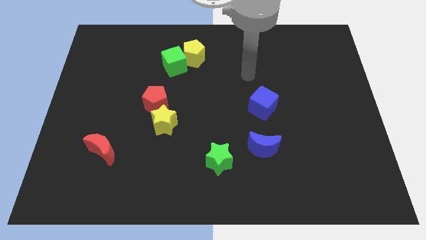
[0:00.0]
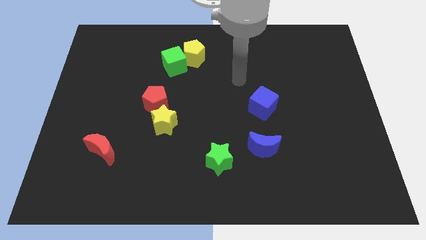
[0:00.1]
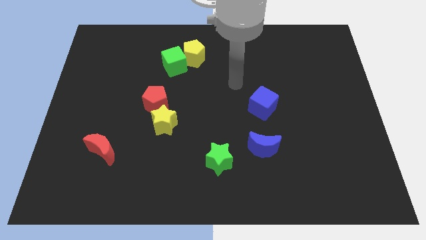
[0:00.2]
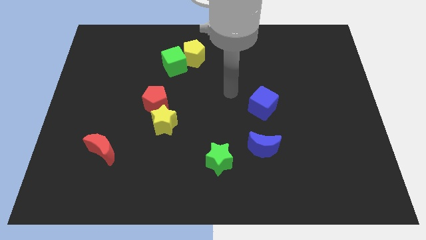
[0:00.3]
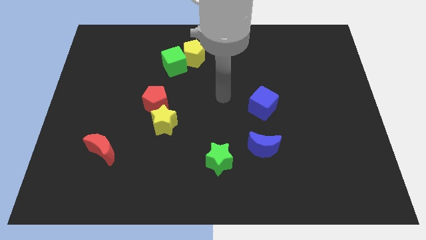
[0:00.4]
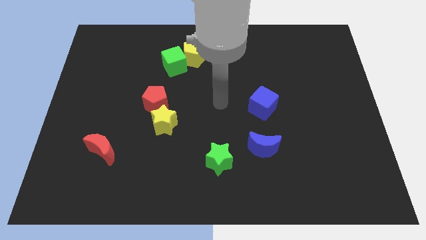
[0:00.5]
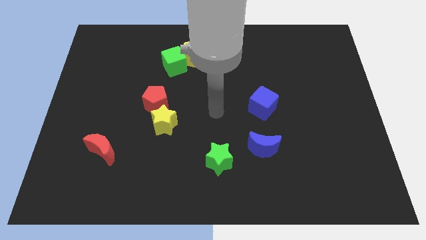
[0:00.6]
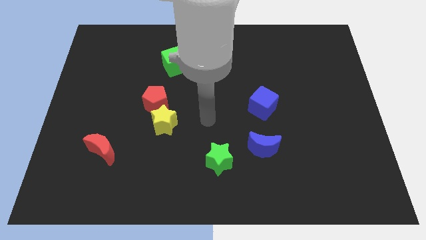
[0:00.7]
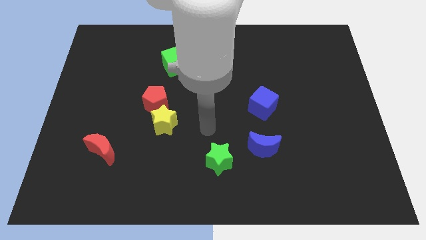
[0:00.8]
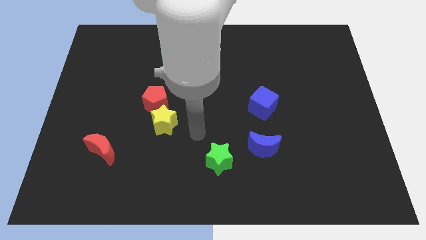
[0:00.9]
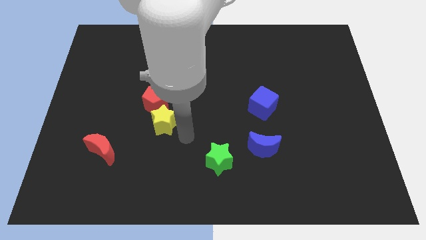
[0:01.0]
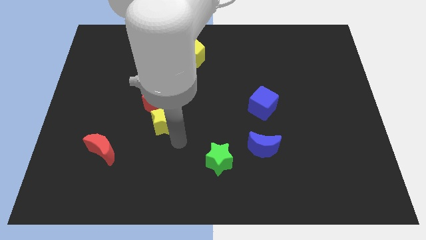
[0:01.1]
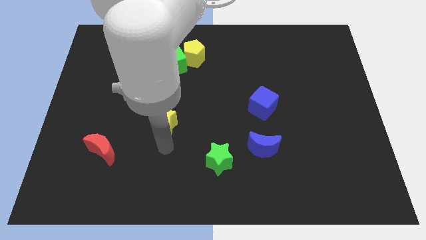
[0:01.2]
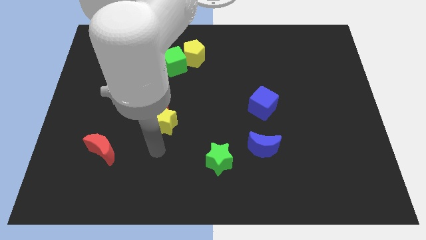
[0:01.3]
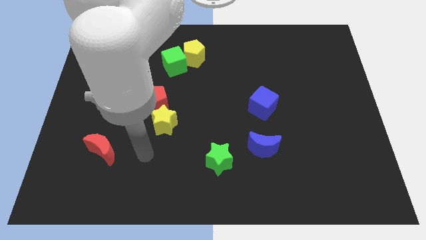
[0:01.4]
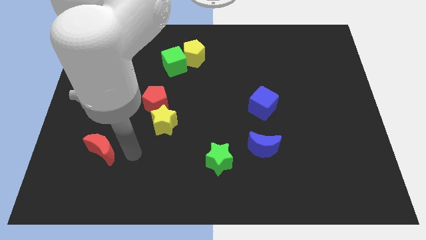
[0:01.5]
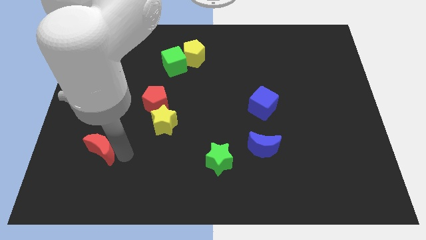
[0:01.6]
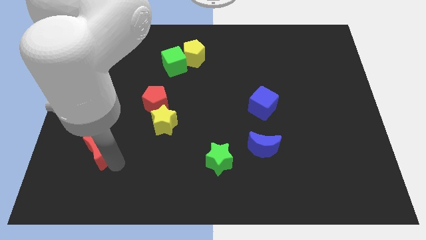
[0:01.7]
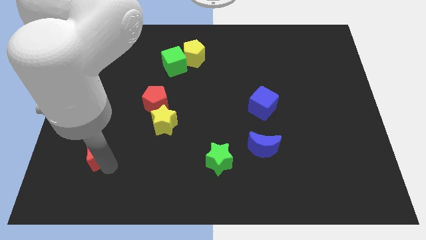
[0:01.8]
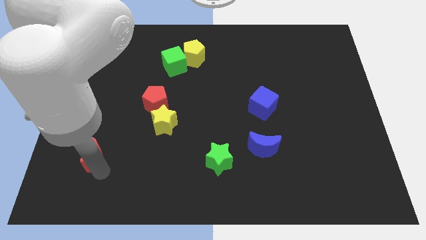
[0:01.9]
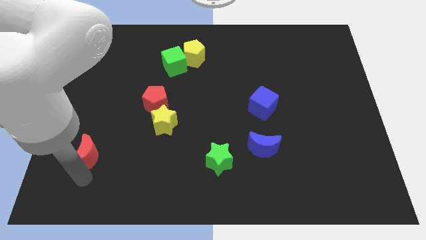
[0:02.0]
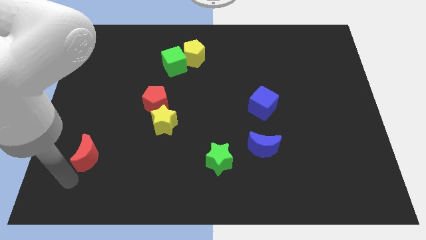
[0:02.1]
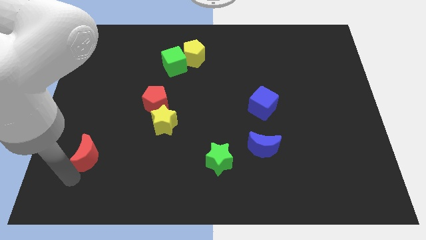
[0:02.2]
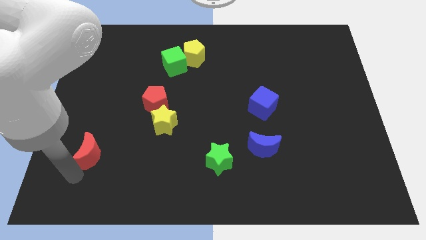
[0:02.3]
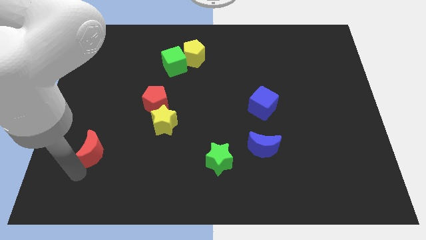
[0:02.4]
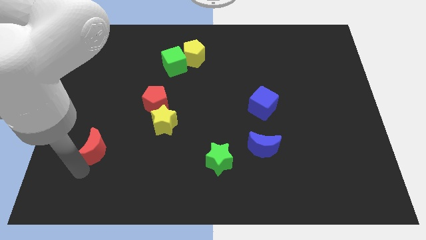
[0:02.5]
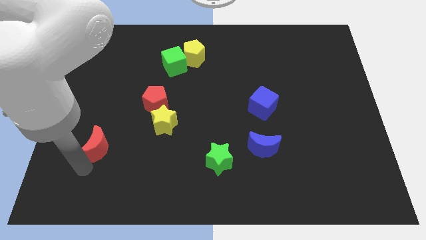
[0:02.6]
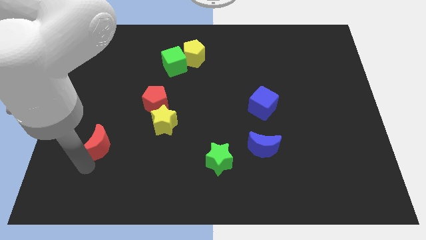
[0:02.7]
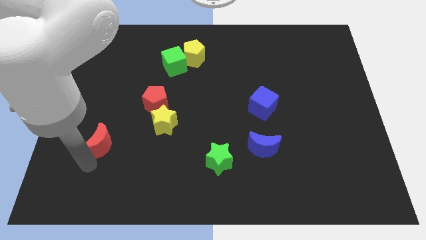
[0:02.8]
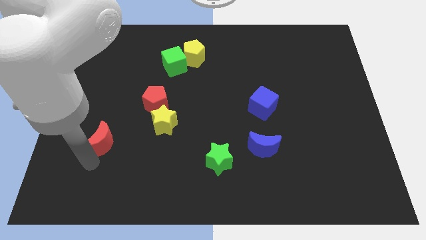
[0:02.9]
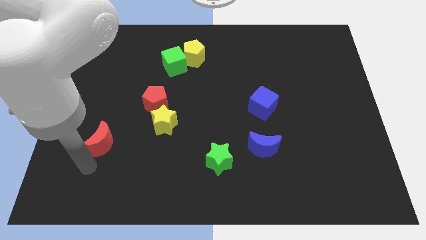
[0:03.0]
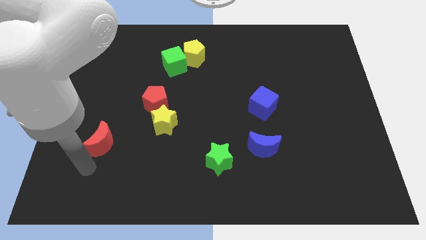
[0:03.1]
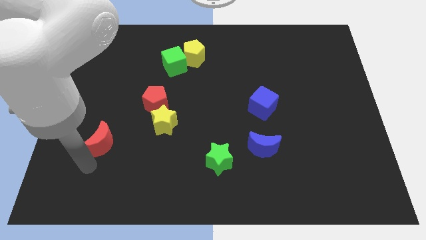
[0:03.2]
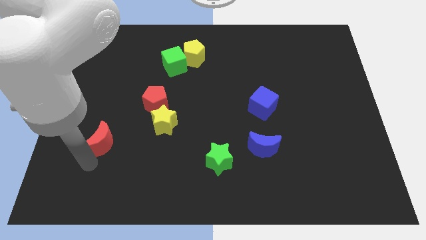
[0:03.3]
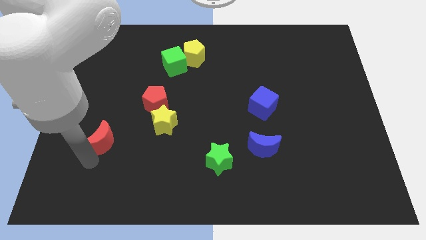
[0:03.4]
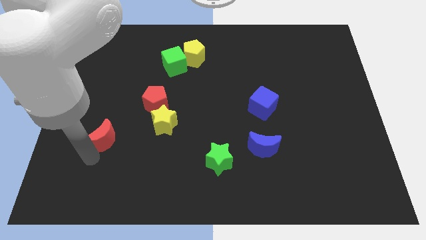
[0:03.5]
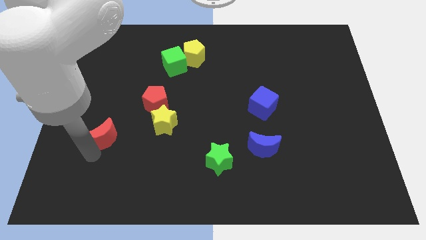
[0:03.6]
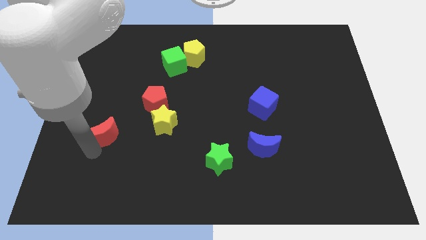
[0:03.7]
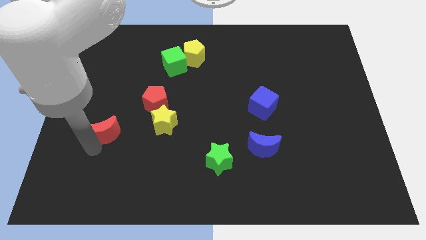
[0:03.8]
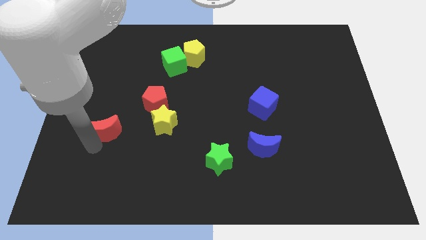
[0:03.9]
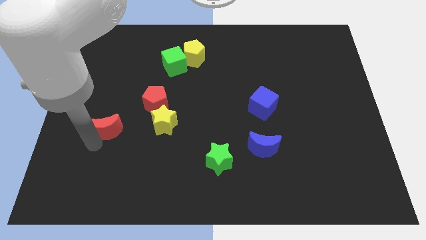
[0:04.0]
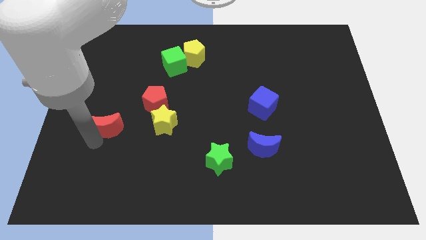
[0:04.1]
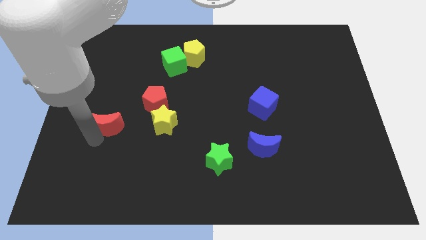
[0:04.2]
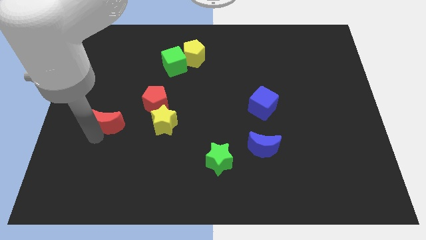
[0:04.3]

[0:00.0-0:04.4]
slightly slide the red moon upwards

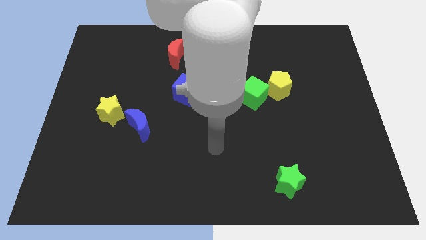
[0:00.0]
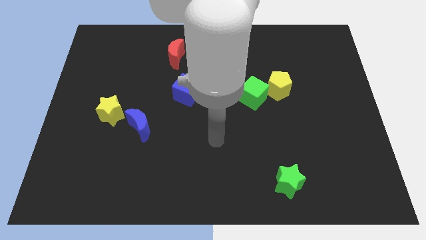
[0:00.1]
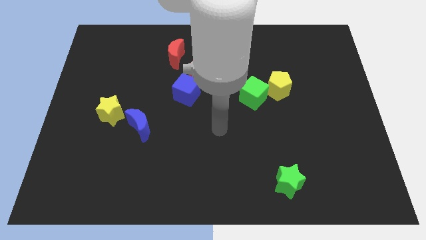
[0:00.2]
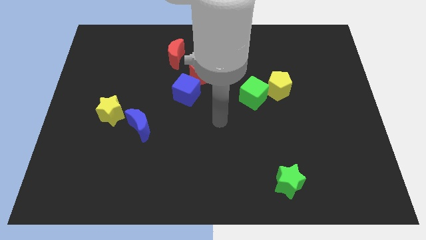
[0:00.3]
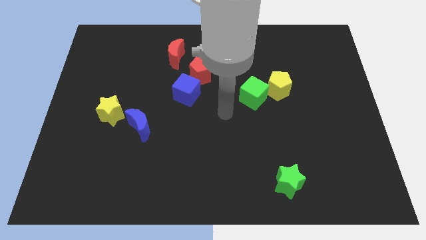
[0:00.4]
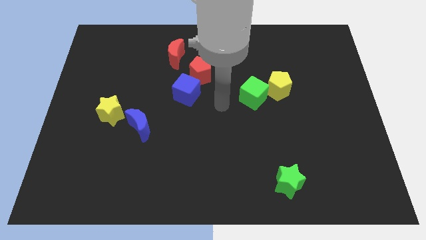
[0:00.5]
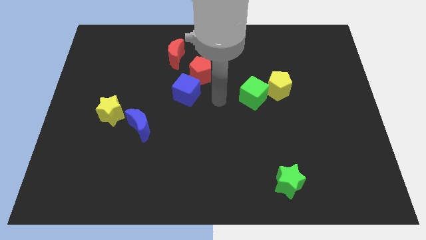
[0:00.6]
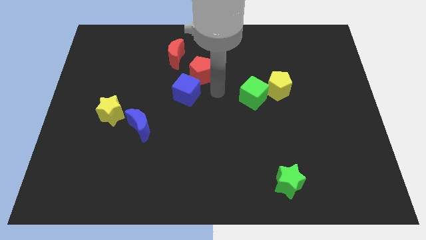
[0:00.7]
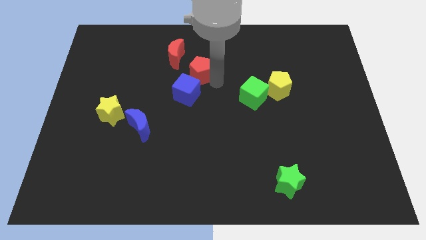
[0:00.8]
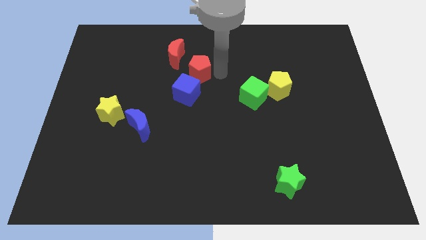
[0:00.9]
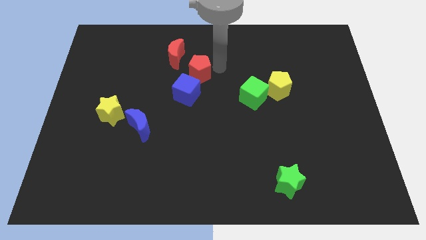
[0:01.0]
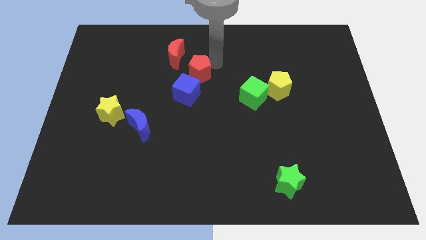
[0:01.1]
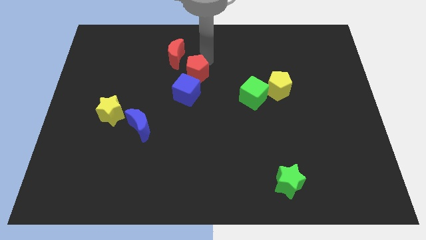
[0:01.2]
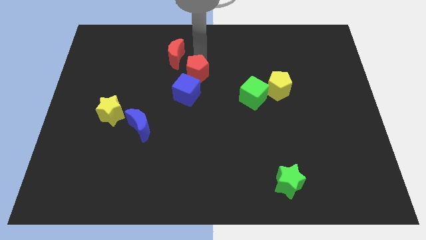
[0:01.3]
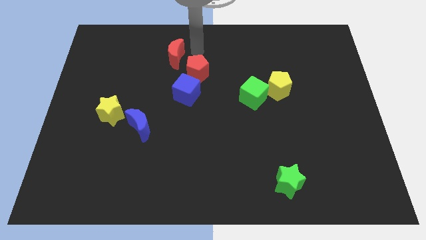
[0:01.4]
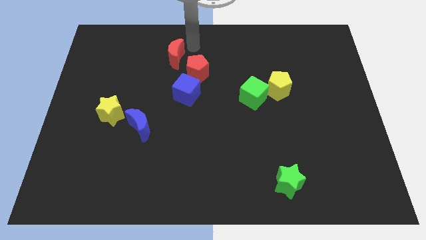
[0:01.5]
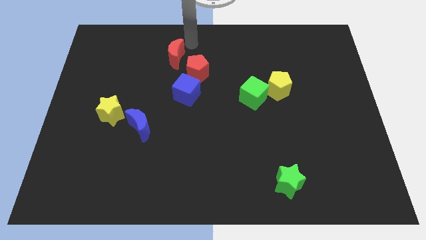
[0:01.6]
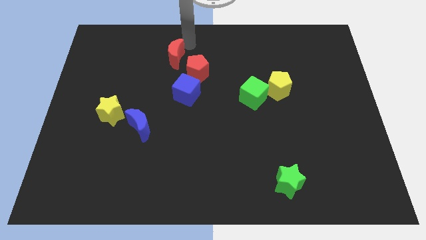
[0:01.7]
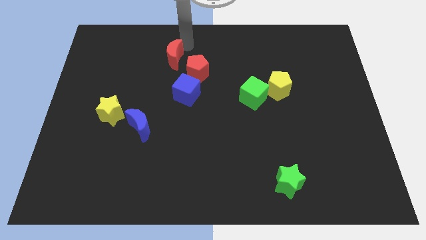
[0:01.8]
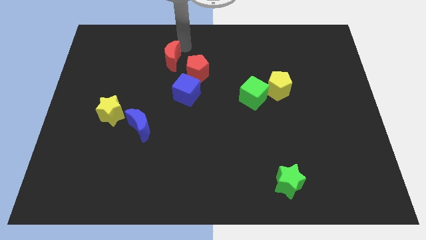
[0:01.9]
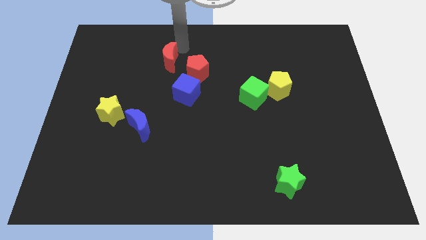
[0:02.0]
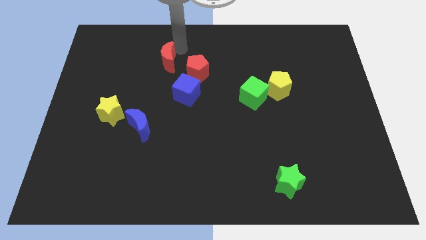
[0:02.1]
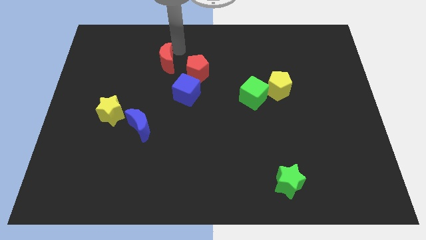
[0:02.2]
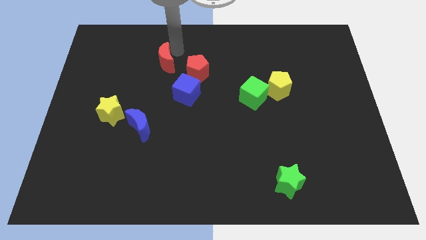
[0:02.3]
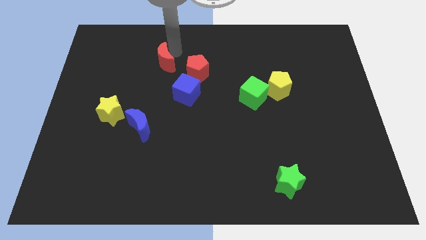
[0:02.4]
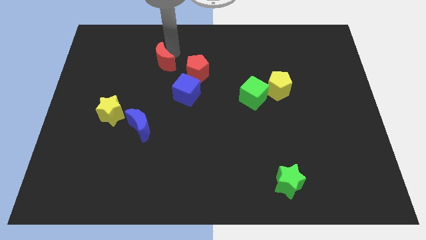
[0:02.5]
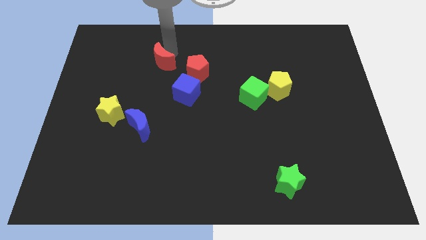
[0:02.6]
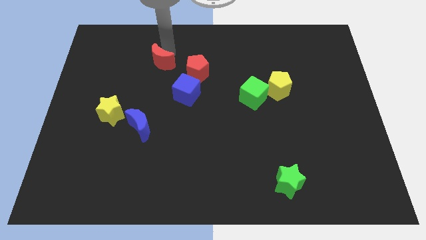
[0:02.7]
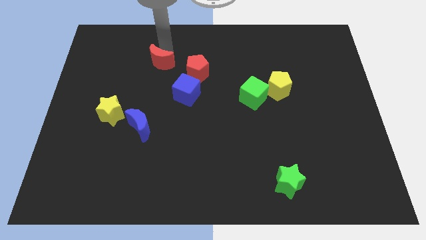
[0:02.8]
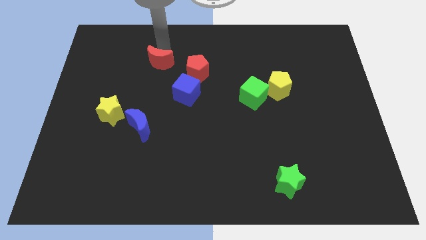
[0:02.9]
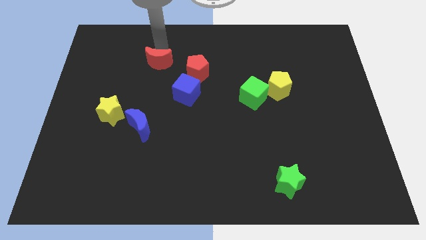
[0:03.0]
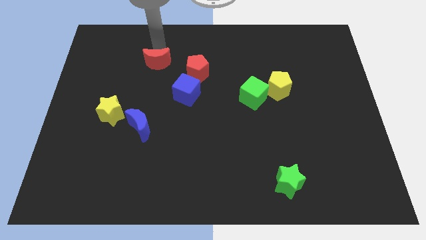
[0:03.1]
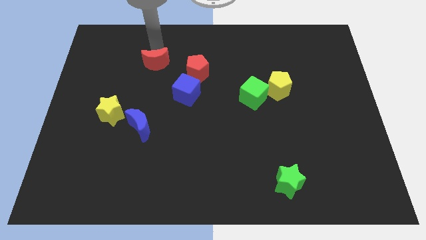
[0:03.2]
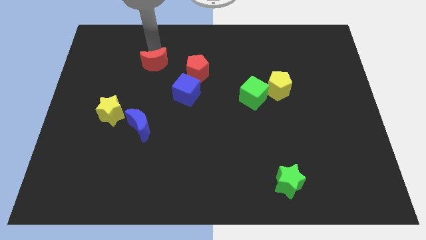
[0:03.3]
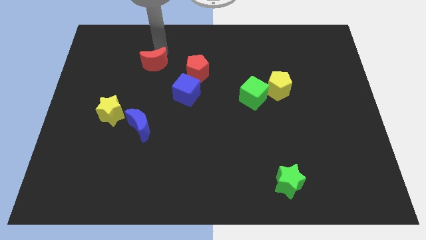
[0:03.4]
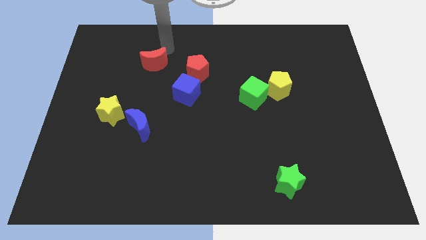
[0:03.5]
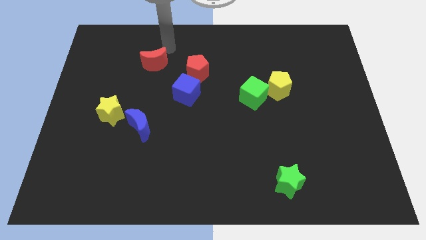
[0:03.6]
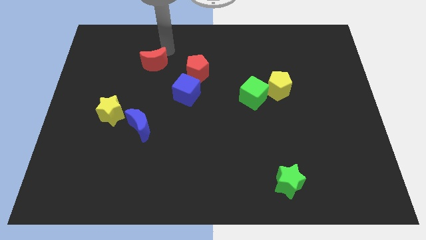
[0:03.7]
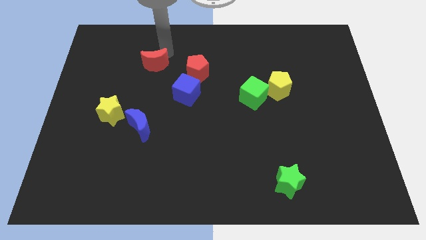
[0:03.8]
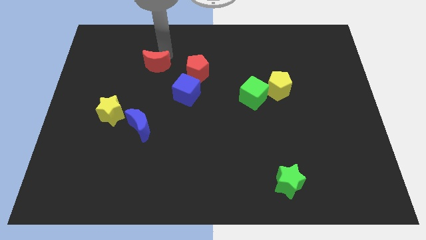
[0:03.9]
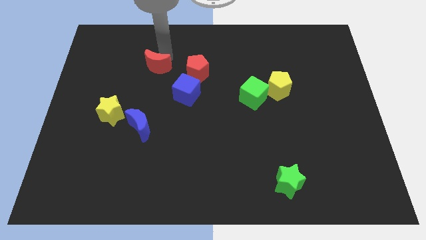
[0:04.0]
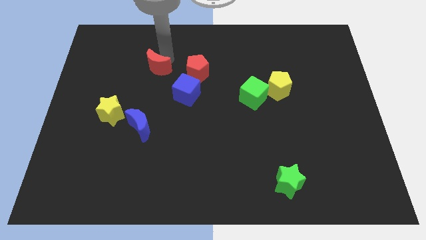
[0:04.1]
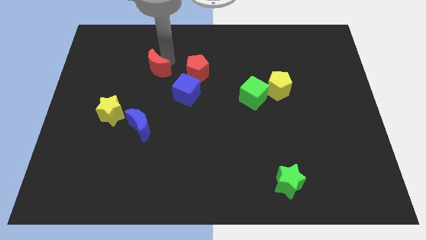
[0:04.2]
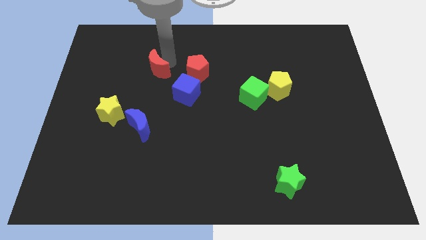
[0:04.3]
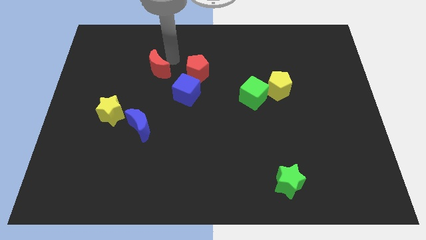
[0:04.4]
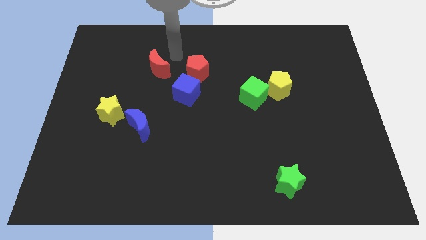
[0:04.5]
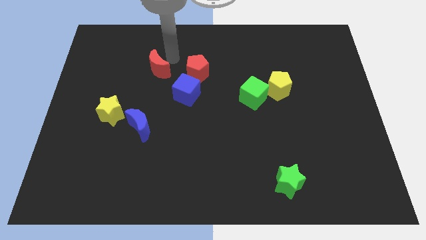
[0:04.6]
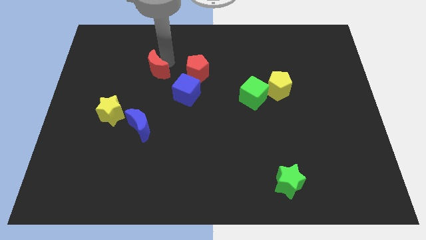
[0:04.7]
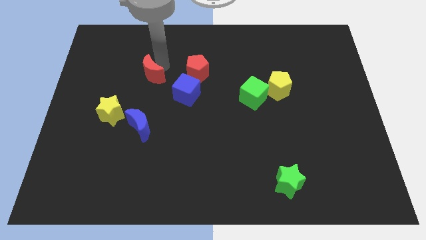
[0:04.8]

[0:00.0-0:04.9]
push the red moon down and to the left slightly
